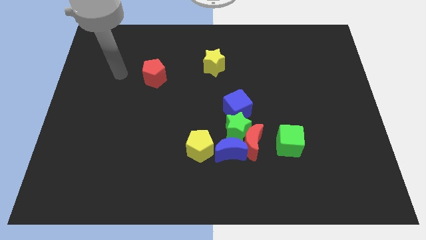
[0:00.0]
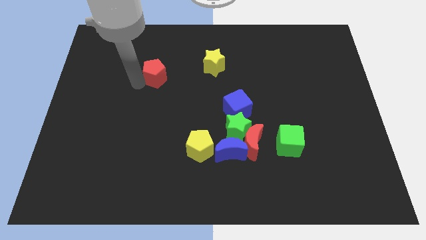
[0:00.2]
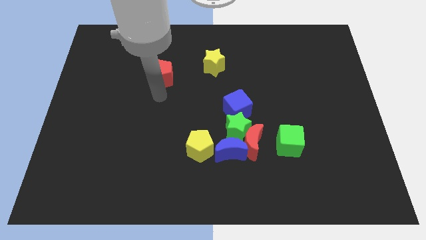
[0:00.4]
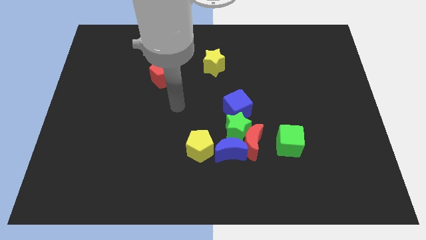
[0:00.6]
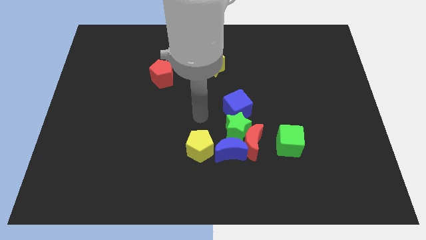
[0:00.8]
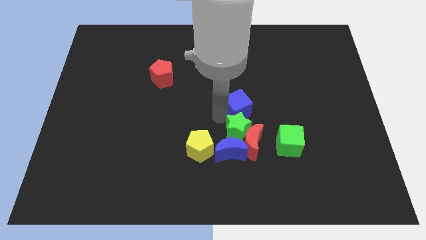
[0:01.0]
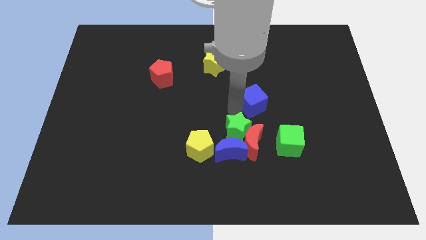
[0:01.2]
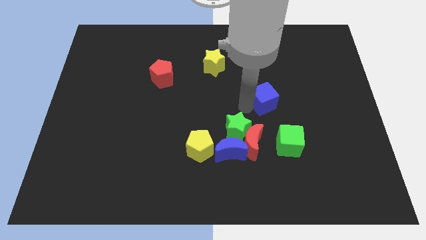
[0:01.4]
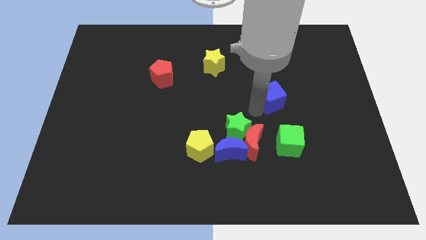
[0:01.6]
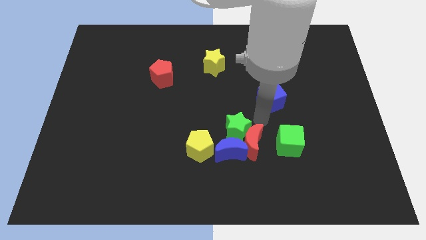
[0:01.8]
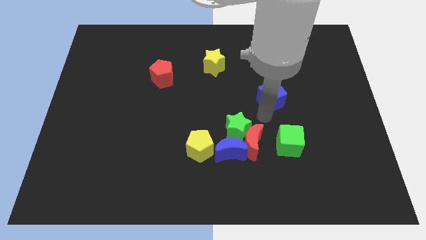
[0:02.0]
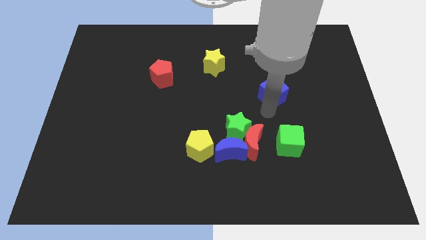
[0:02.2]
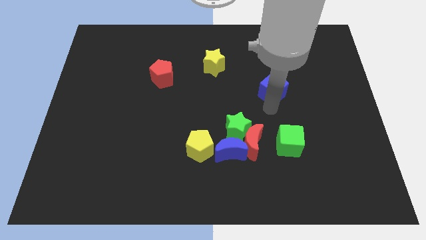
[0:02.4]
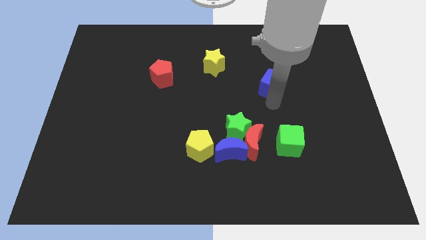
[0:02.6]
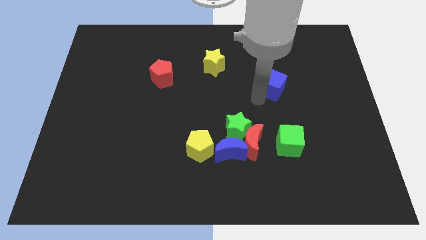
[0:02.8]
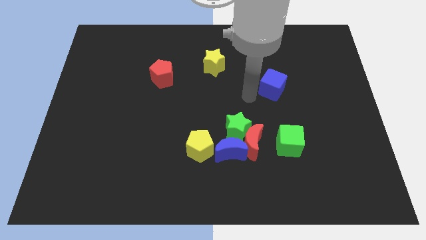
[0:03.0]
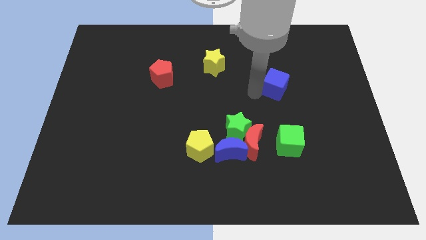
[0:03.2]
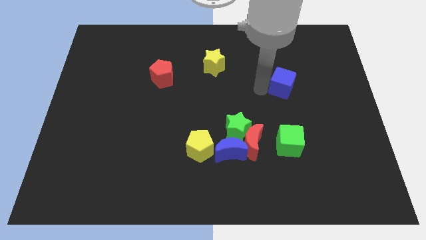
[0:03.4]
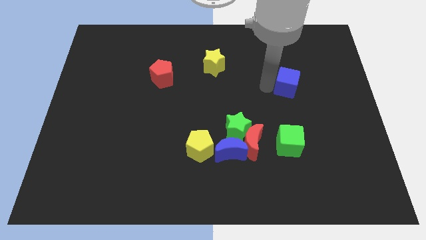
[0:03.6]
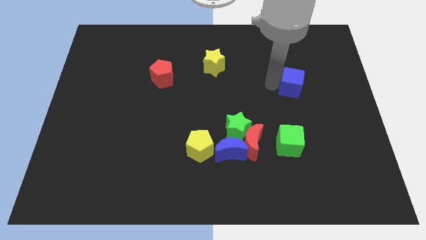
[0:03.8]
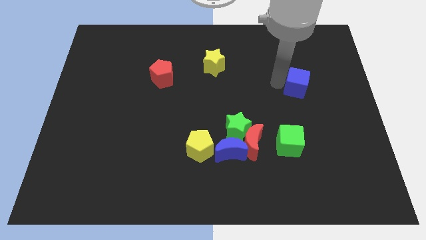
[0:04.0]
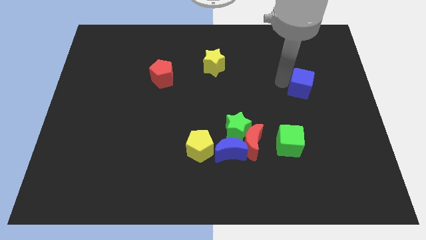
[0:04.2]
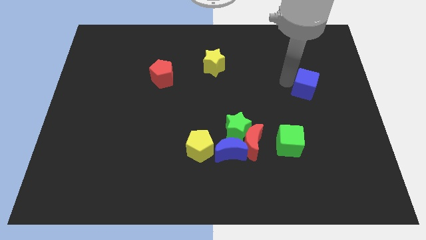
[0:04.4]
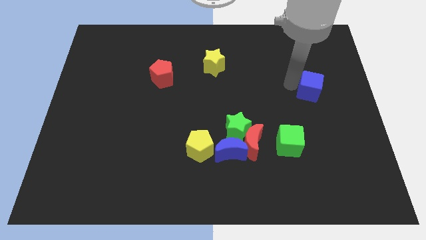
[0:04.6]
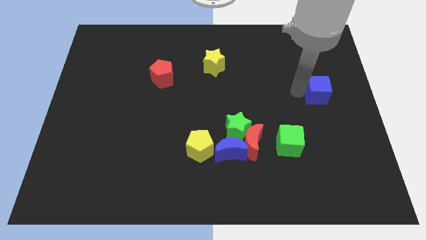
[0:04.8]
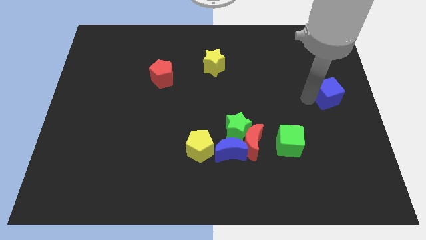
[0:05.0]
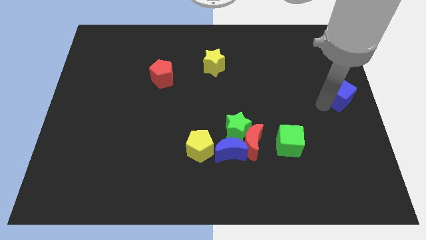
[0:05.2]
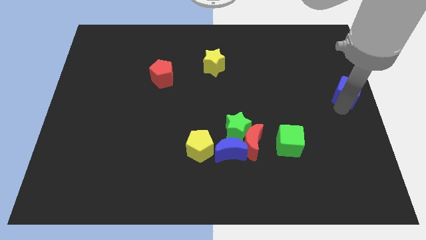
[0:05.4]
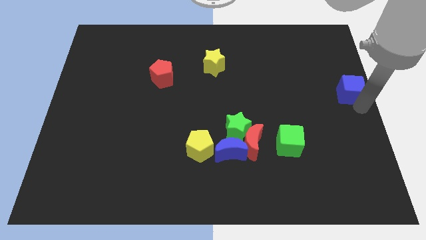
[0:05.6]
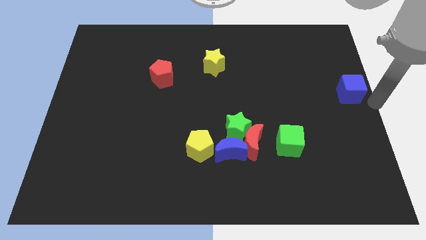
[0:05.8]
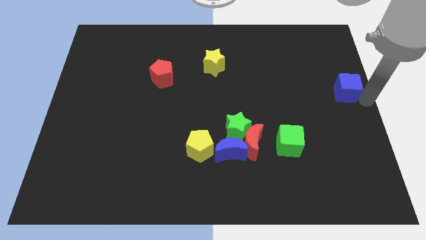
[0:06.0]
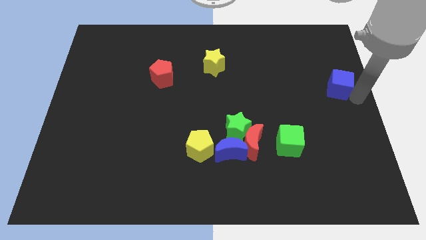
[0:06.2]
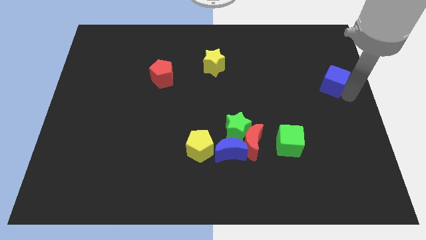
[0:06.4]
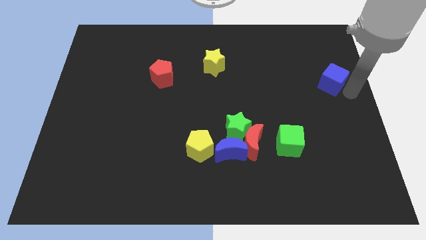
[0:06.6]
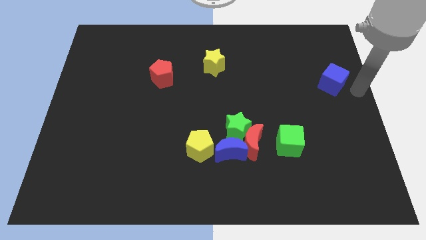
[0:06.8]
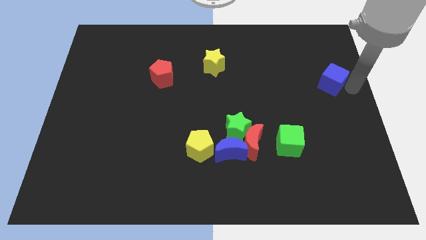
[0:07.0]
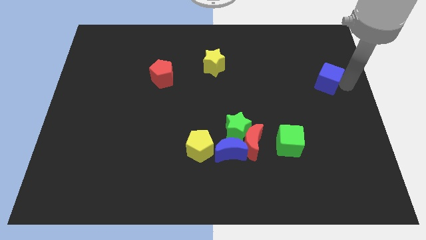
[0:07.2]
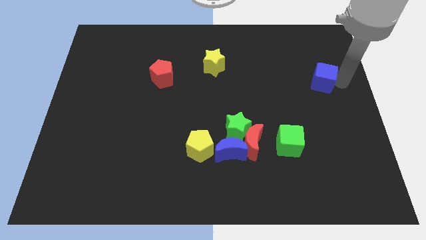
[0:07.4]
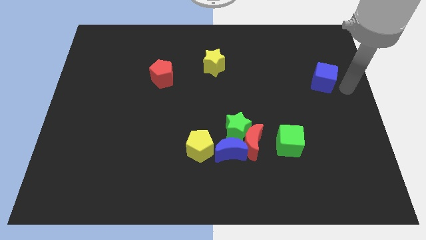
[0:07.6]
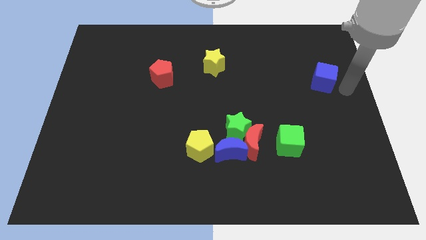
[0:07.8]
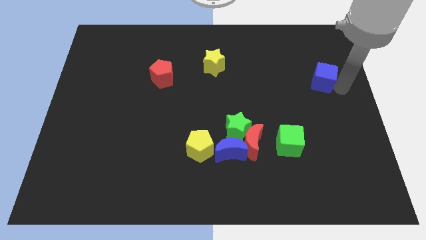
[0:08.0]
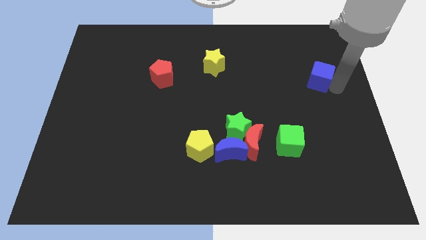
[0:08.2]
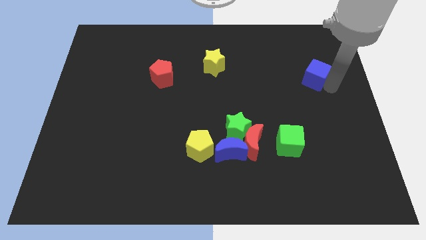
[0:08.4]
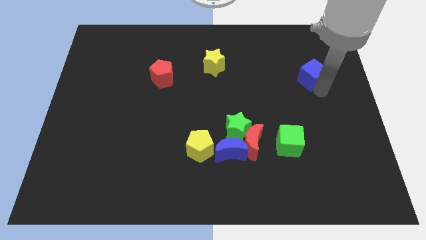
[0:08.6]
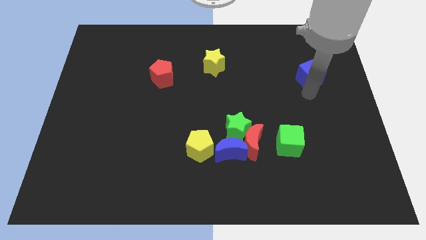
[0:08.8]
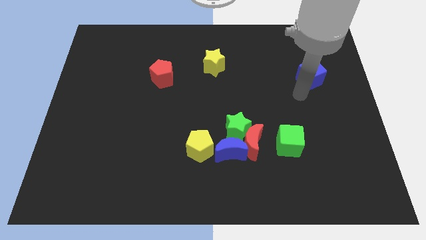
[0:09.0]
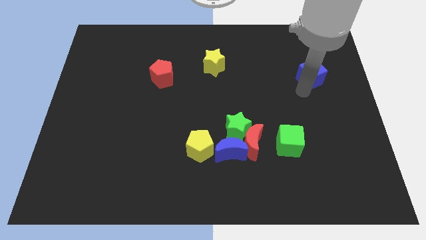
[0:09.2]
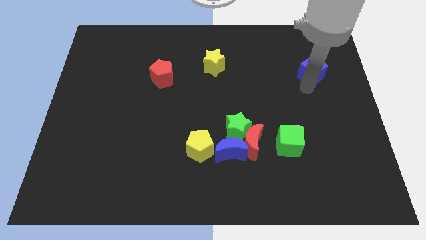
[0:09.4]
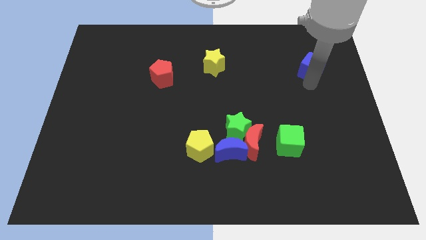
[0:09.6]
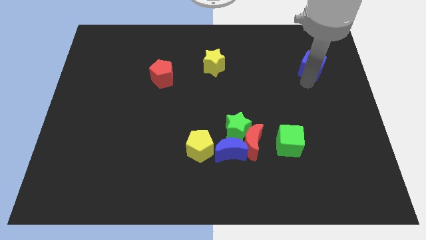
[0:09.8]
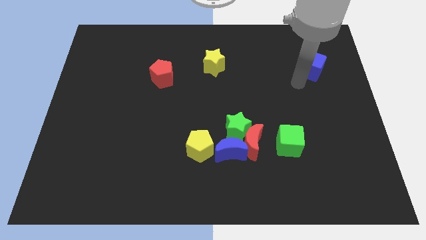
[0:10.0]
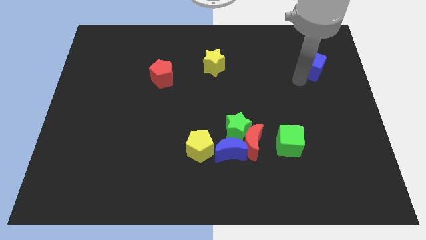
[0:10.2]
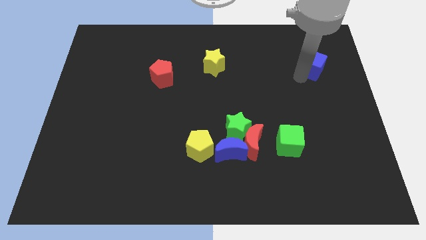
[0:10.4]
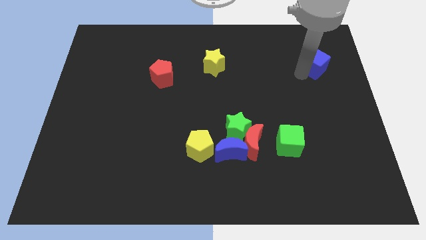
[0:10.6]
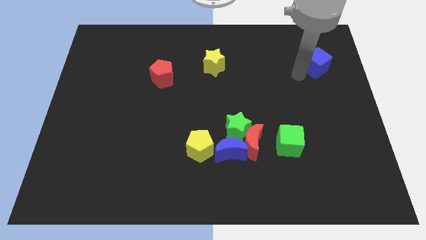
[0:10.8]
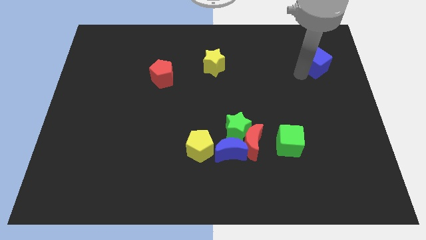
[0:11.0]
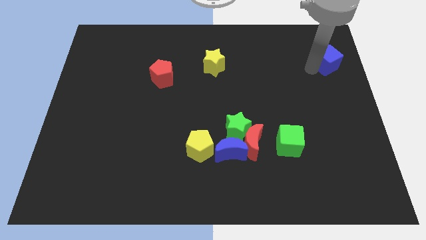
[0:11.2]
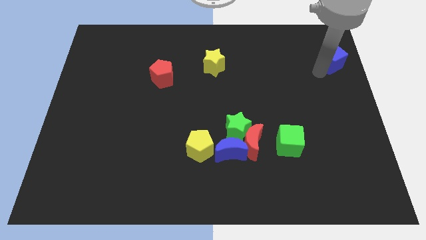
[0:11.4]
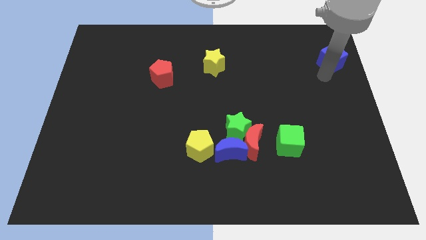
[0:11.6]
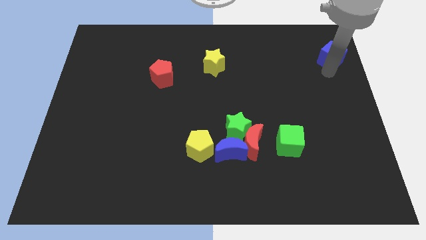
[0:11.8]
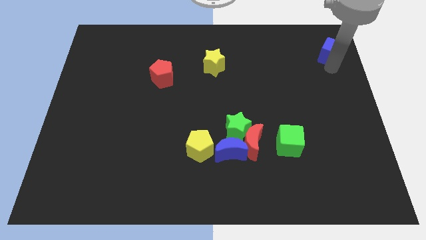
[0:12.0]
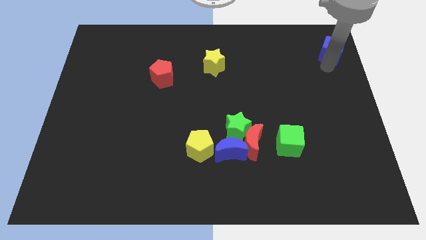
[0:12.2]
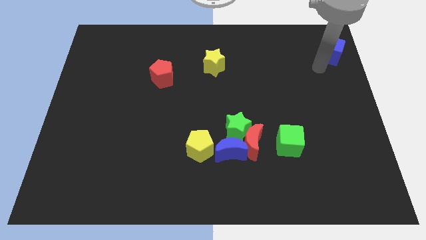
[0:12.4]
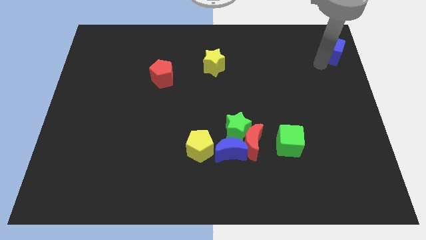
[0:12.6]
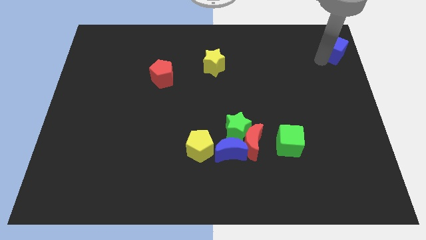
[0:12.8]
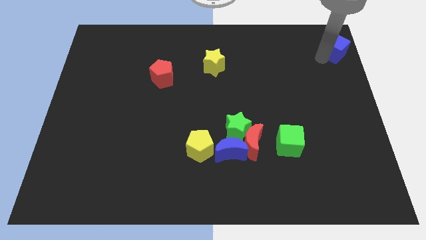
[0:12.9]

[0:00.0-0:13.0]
put the blue cube to the top right corner

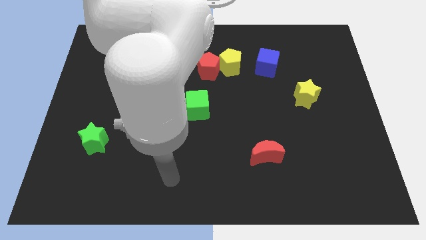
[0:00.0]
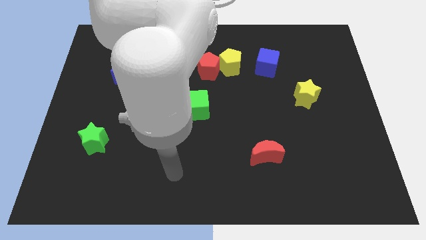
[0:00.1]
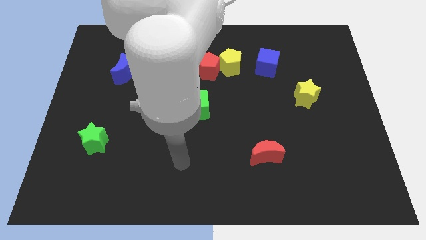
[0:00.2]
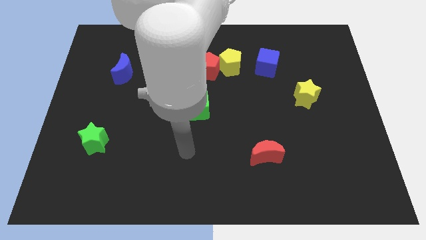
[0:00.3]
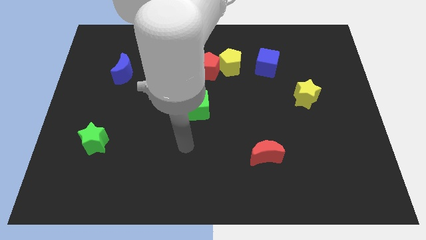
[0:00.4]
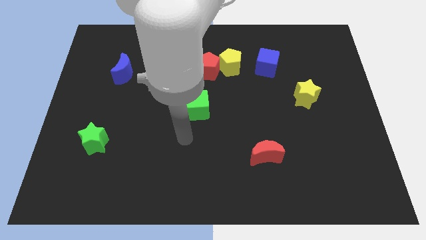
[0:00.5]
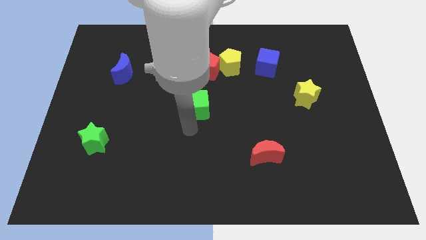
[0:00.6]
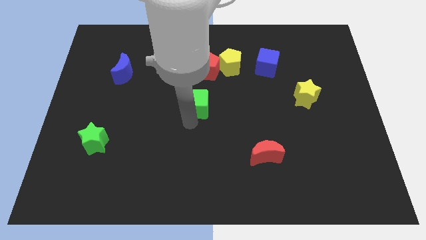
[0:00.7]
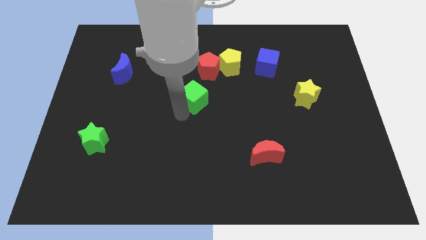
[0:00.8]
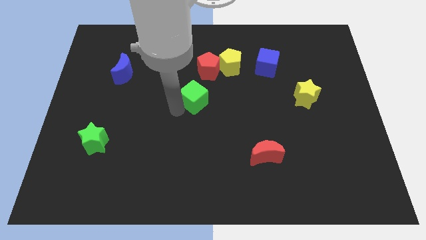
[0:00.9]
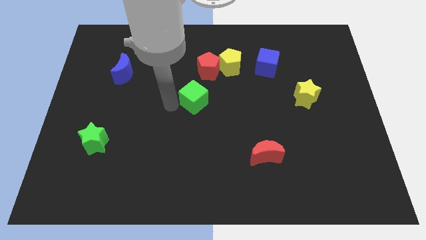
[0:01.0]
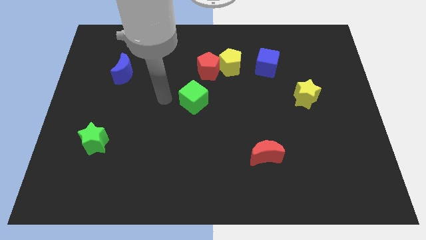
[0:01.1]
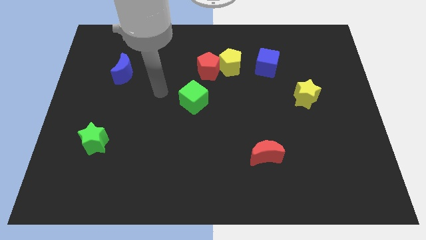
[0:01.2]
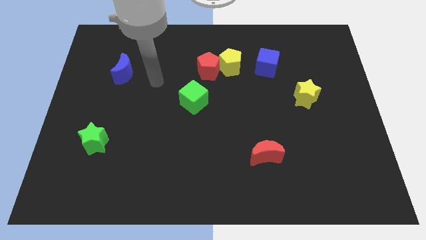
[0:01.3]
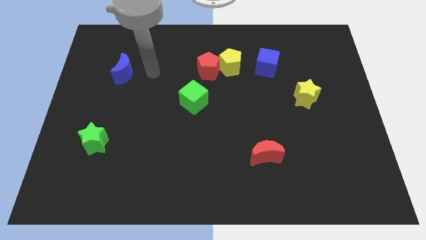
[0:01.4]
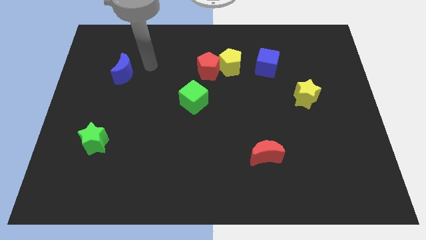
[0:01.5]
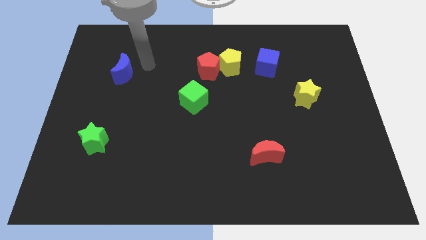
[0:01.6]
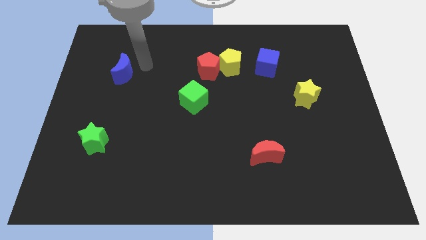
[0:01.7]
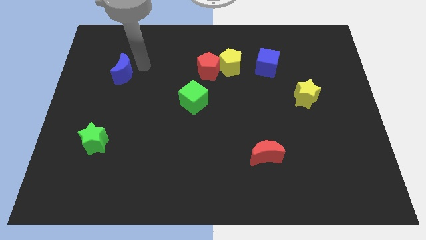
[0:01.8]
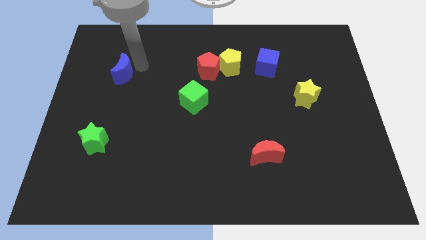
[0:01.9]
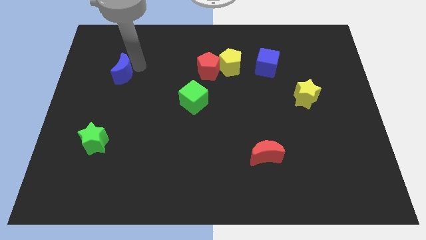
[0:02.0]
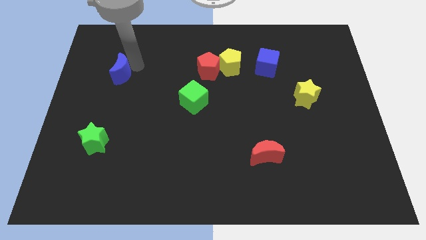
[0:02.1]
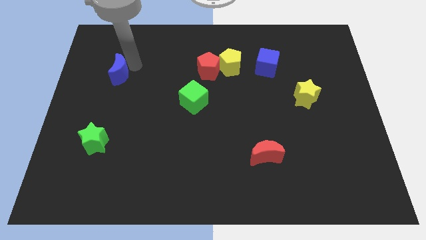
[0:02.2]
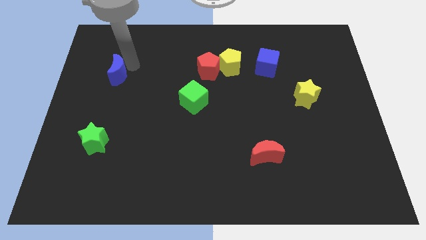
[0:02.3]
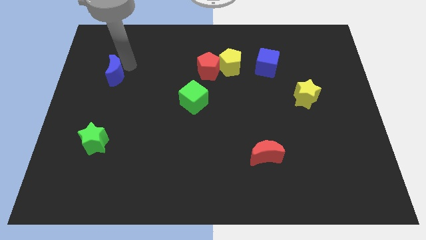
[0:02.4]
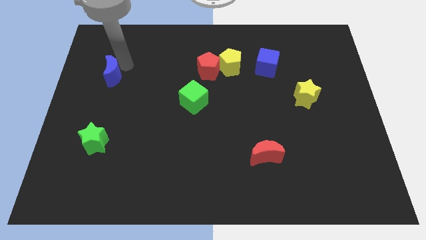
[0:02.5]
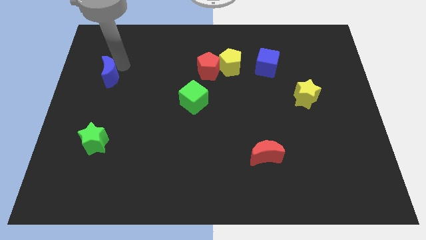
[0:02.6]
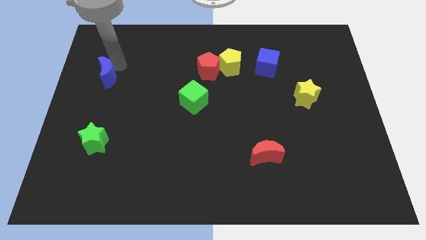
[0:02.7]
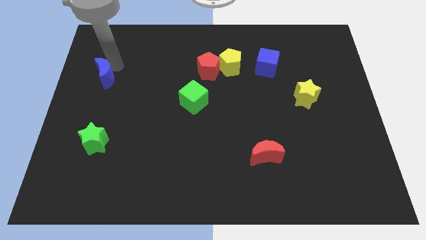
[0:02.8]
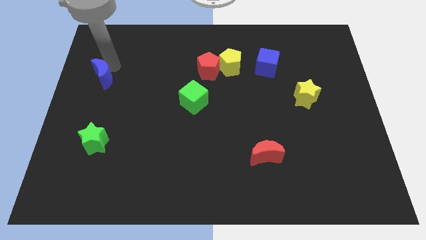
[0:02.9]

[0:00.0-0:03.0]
put the blue moon to the center left
